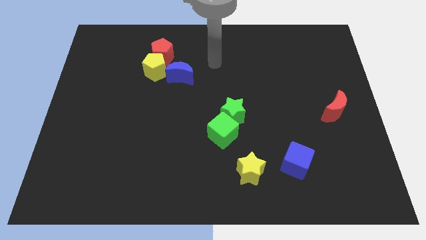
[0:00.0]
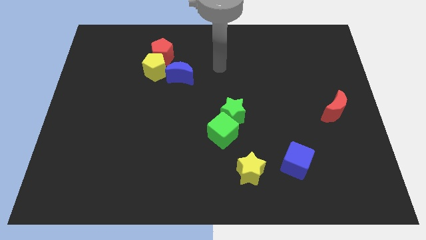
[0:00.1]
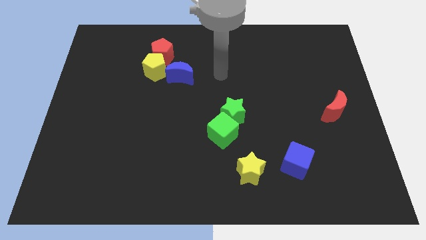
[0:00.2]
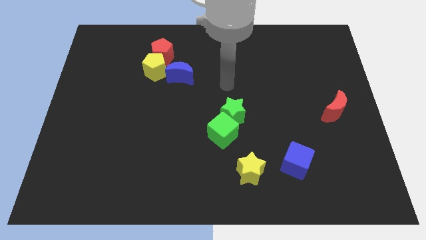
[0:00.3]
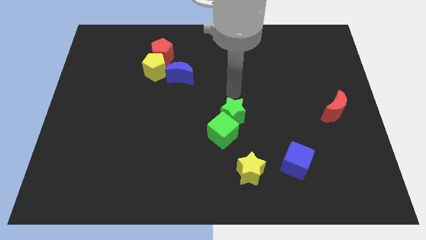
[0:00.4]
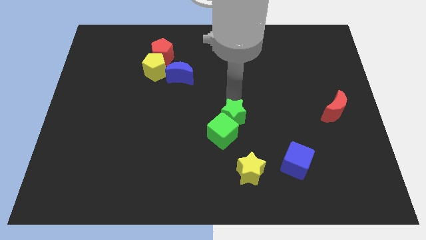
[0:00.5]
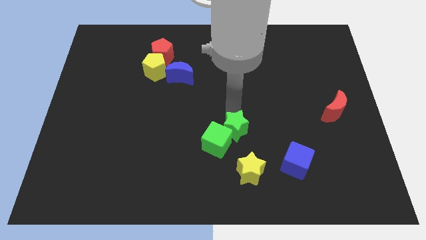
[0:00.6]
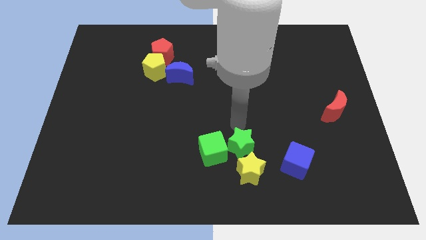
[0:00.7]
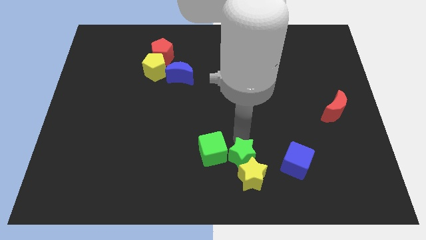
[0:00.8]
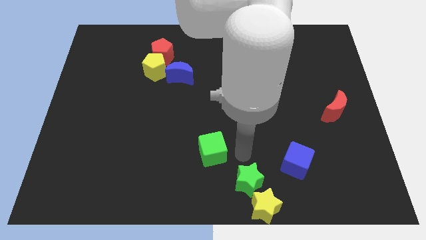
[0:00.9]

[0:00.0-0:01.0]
pull the green cube apart from the green star

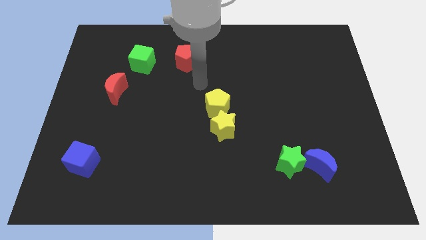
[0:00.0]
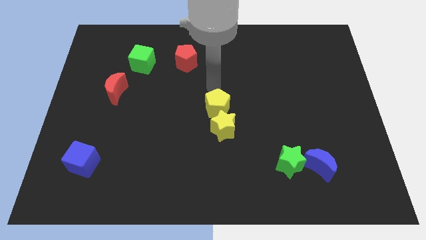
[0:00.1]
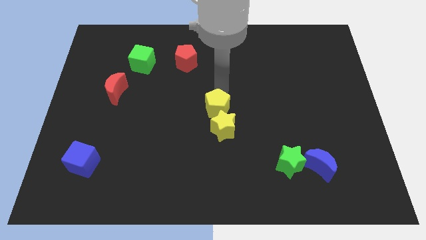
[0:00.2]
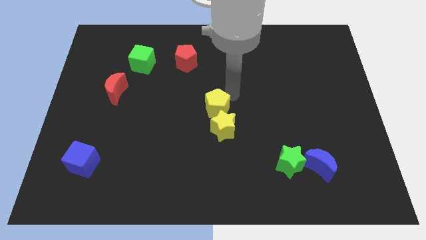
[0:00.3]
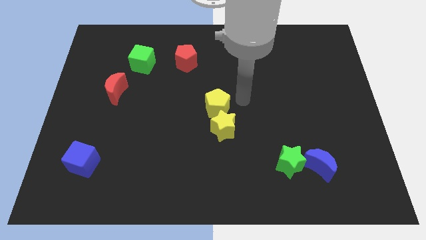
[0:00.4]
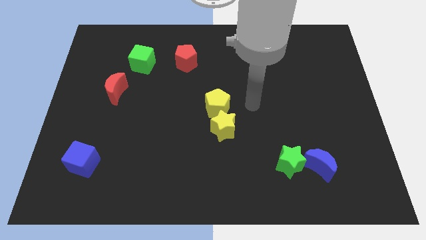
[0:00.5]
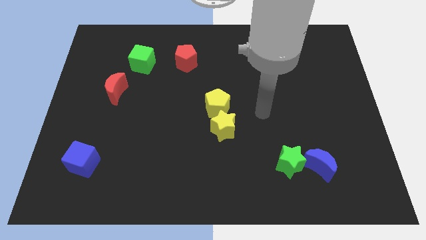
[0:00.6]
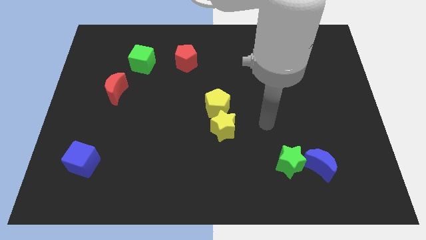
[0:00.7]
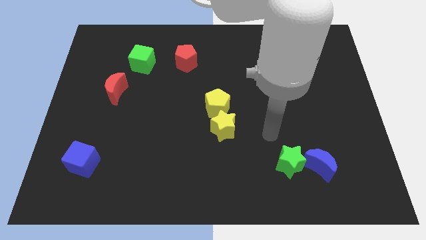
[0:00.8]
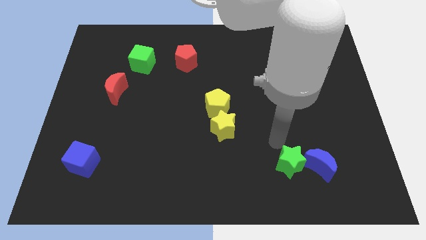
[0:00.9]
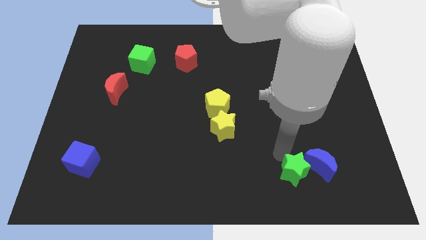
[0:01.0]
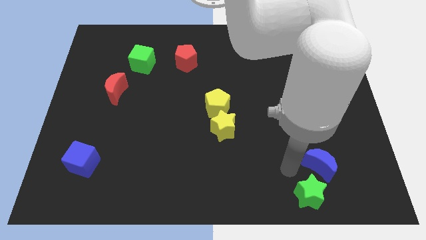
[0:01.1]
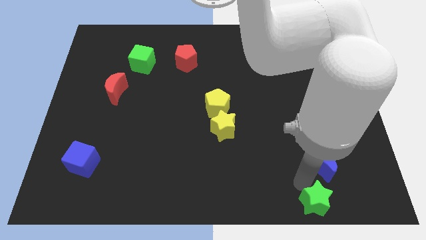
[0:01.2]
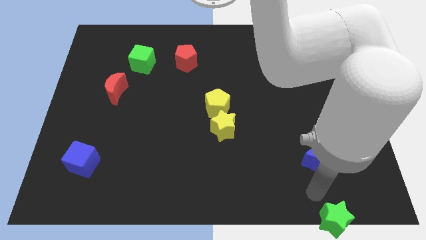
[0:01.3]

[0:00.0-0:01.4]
separate the blue moon from the green star

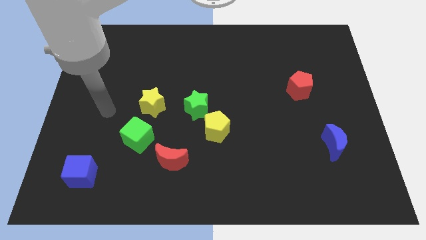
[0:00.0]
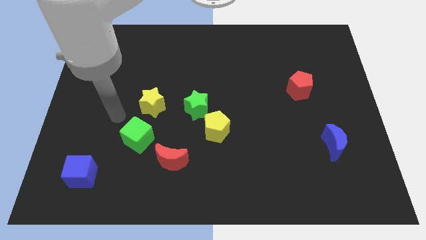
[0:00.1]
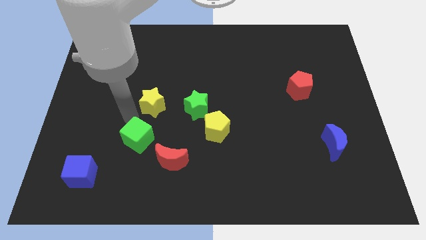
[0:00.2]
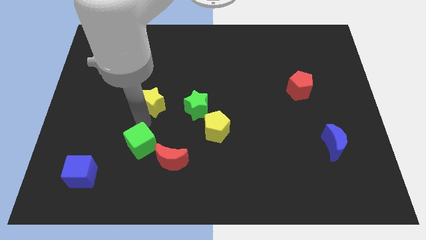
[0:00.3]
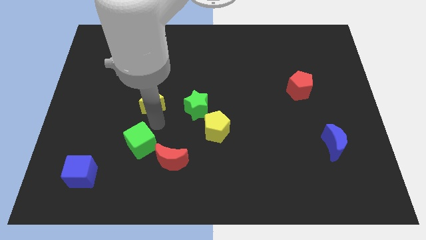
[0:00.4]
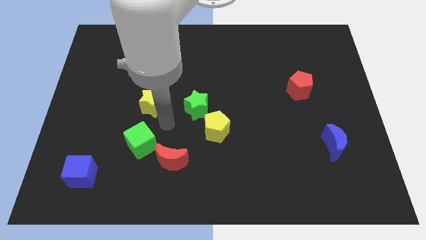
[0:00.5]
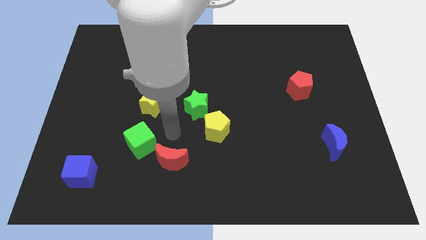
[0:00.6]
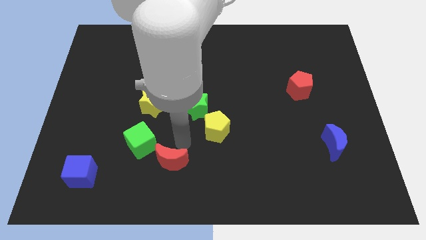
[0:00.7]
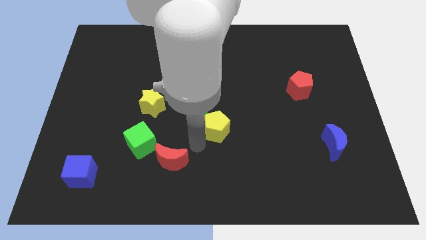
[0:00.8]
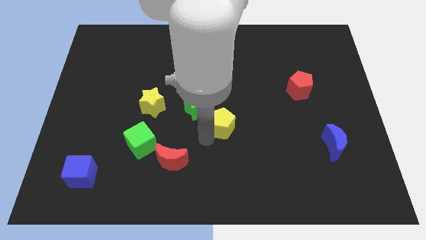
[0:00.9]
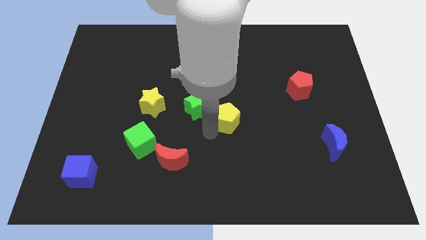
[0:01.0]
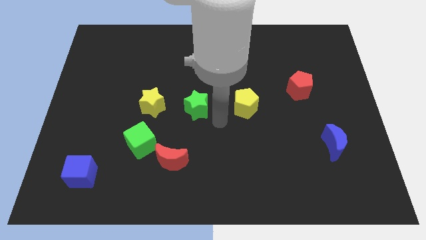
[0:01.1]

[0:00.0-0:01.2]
pull the green star apart from the yellow pentagon

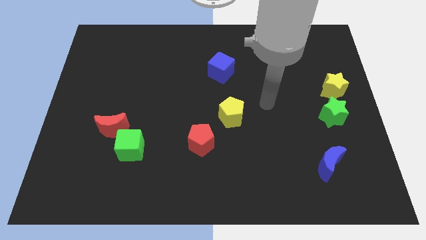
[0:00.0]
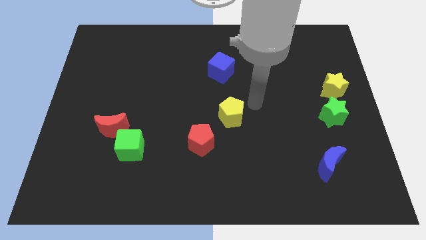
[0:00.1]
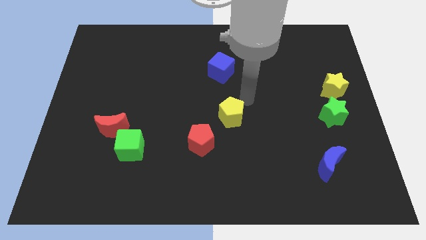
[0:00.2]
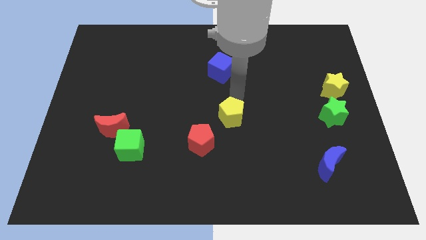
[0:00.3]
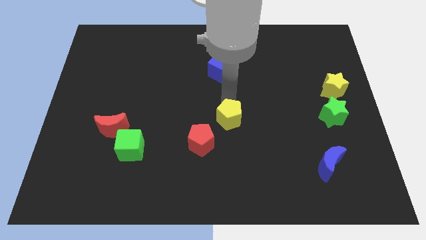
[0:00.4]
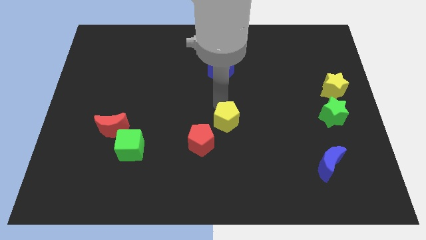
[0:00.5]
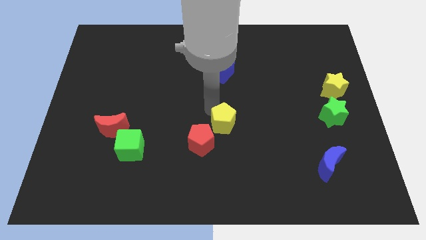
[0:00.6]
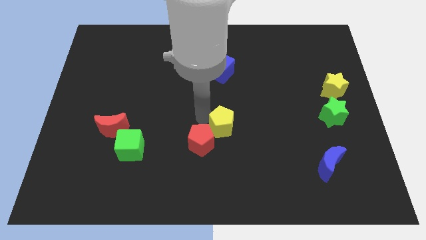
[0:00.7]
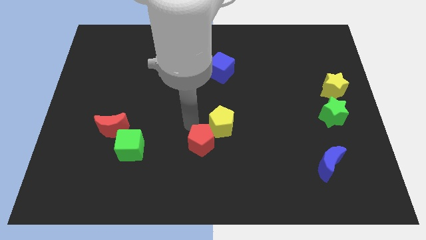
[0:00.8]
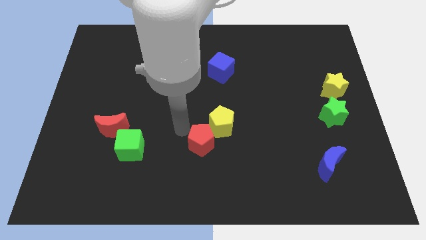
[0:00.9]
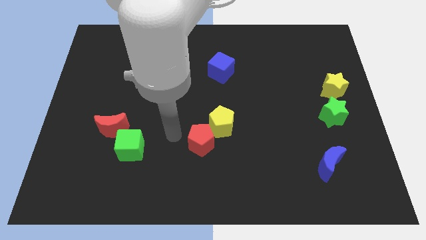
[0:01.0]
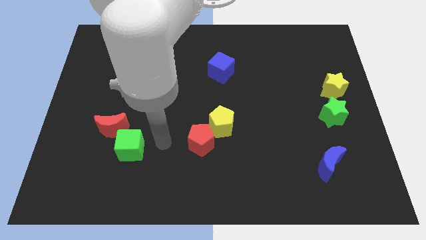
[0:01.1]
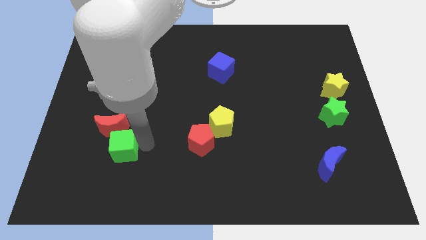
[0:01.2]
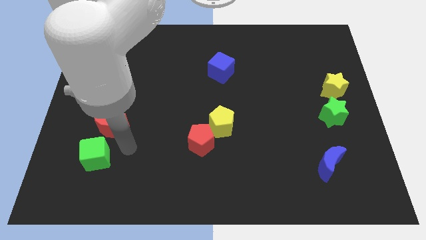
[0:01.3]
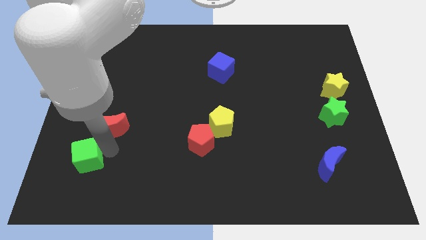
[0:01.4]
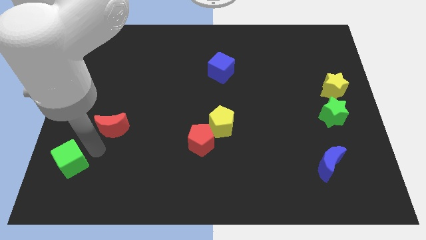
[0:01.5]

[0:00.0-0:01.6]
separate the red moon from the green cube

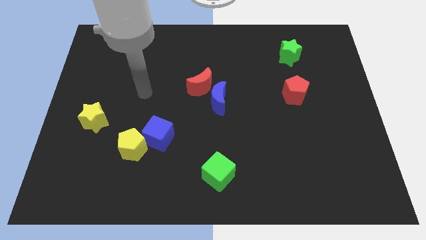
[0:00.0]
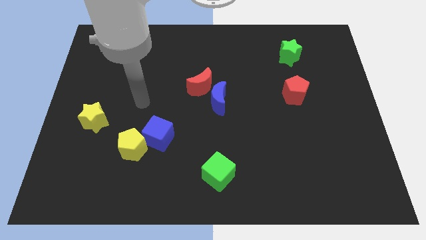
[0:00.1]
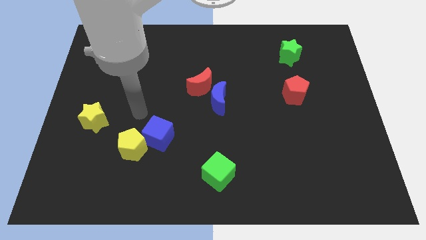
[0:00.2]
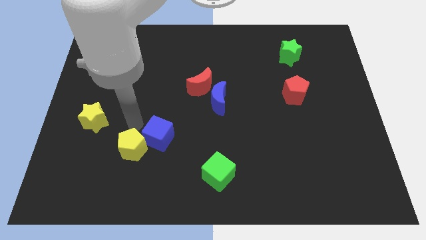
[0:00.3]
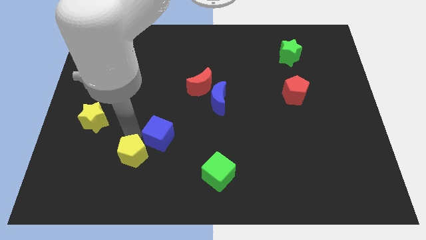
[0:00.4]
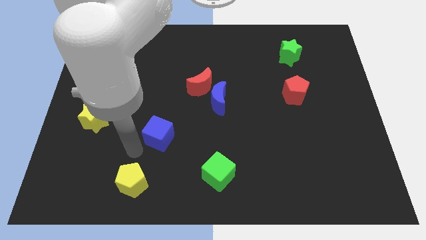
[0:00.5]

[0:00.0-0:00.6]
pull the blue cube apart from the yellow pentagon

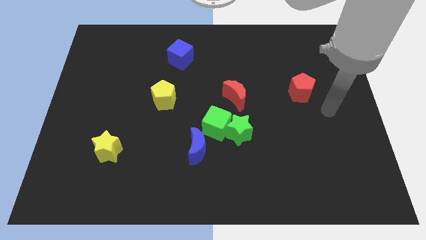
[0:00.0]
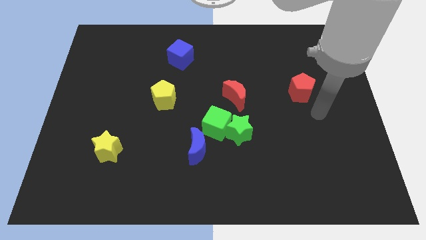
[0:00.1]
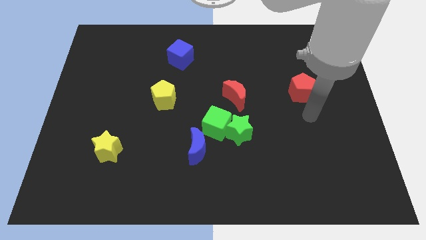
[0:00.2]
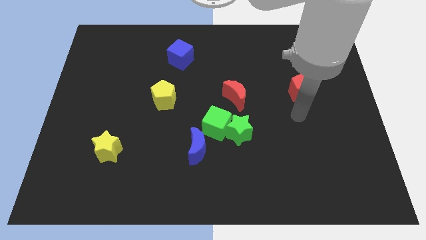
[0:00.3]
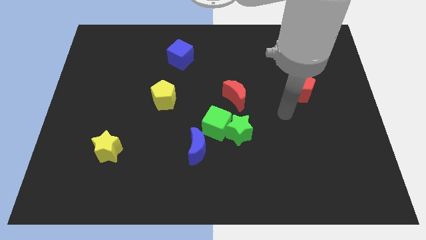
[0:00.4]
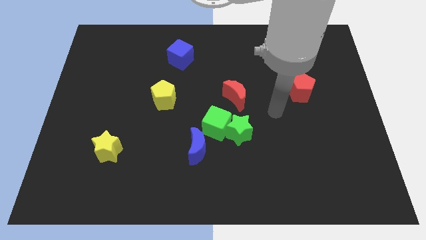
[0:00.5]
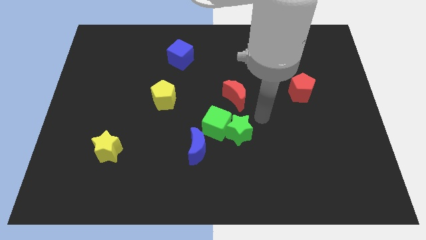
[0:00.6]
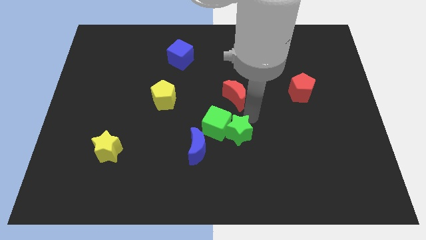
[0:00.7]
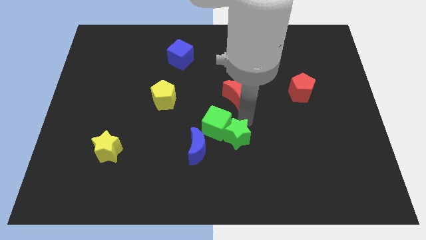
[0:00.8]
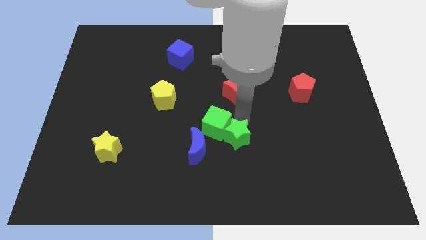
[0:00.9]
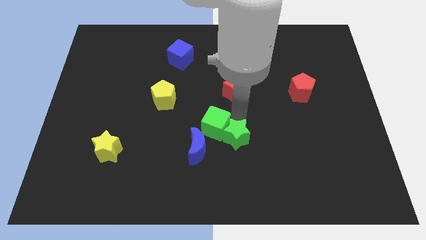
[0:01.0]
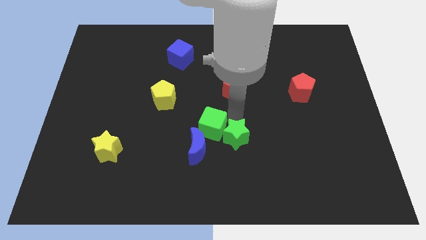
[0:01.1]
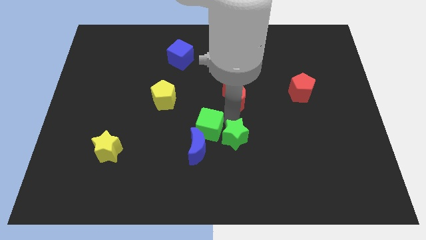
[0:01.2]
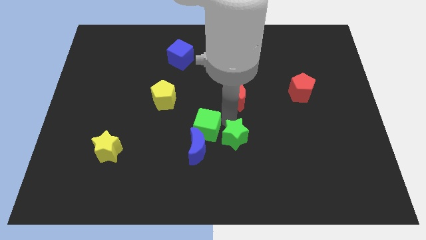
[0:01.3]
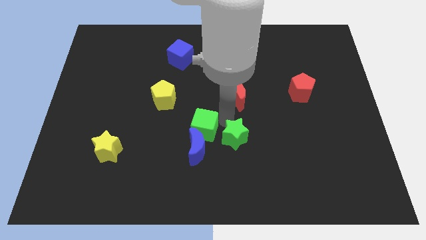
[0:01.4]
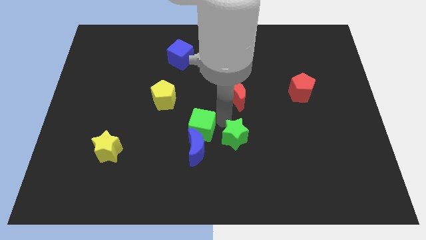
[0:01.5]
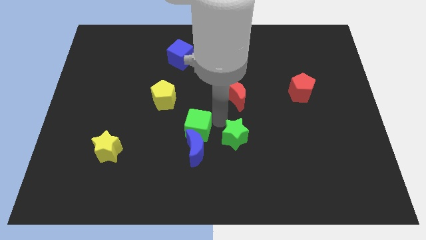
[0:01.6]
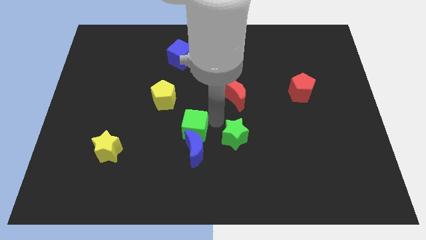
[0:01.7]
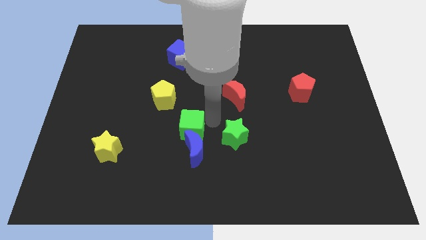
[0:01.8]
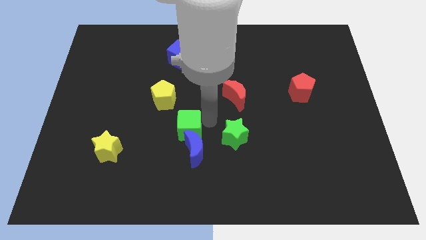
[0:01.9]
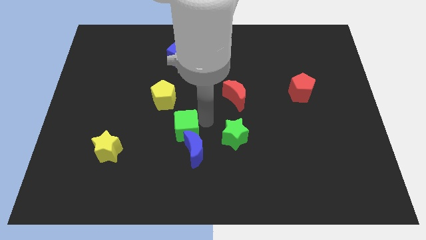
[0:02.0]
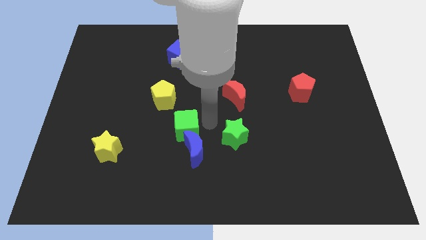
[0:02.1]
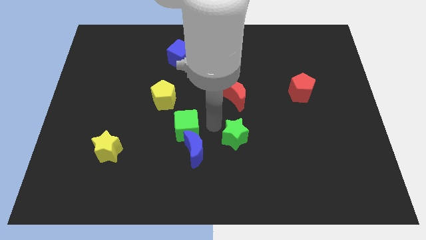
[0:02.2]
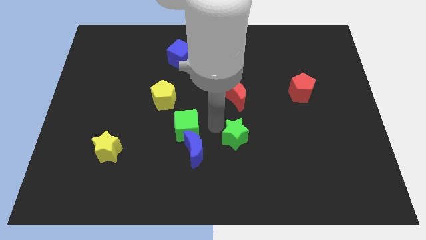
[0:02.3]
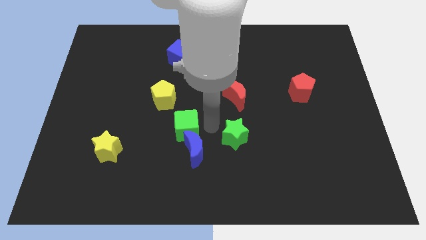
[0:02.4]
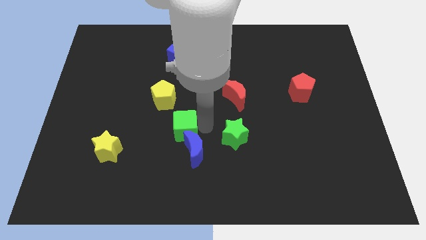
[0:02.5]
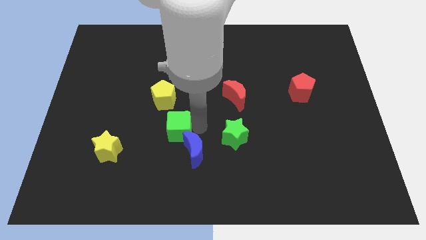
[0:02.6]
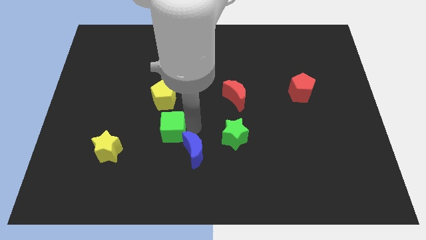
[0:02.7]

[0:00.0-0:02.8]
move the green cube away from the clump

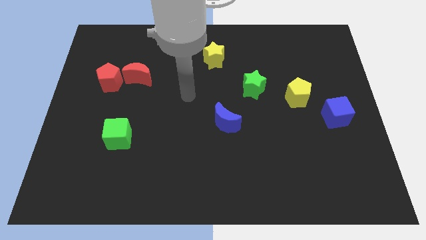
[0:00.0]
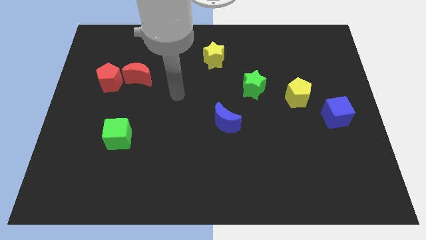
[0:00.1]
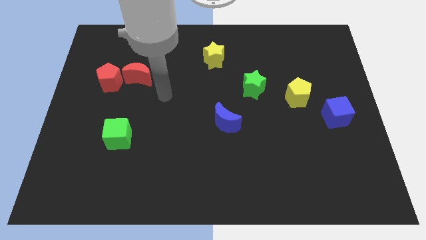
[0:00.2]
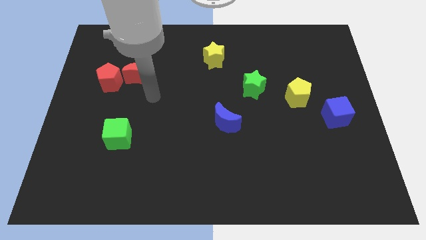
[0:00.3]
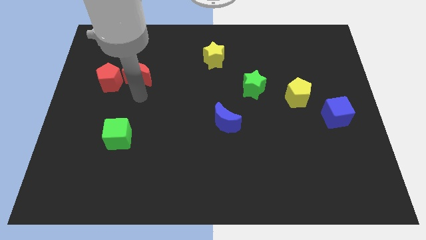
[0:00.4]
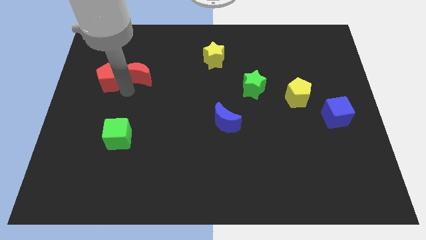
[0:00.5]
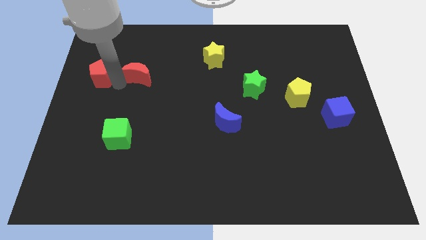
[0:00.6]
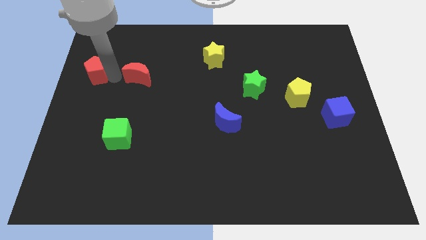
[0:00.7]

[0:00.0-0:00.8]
separate the red moon from the red pentagon
